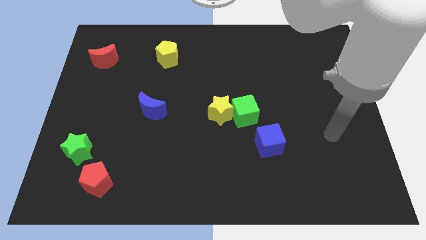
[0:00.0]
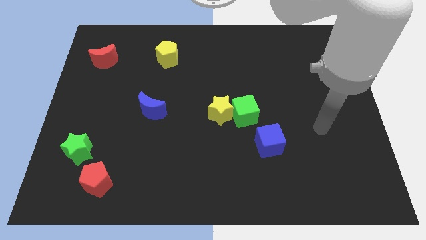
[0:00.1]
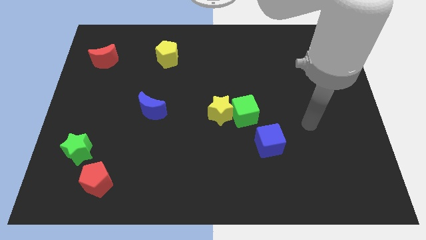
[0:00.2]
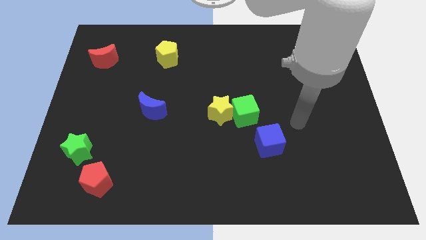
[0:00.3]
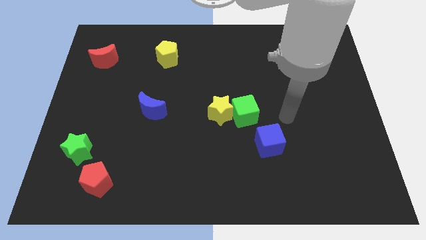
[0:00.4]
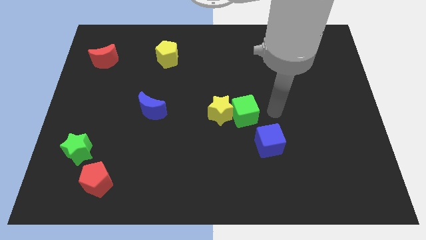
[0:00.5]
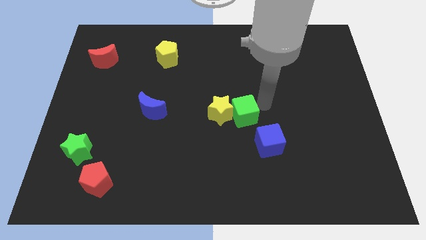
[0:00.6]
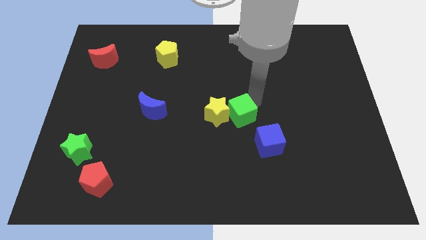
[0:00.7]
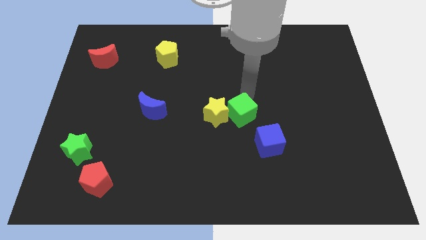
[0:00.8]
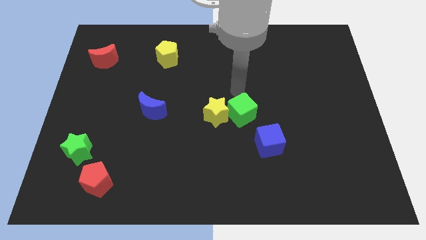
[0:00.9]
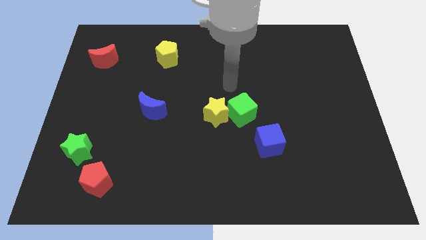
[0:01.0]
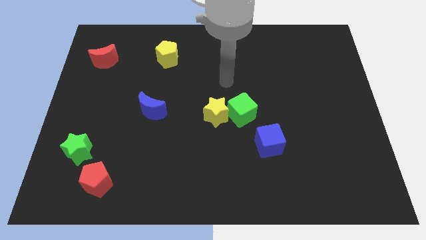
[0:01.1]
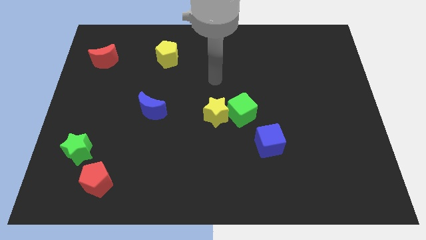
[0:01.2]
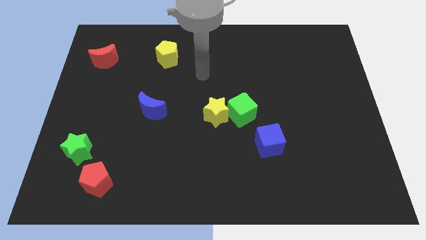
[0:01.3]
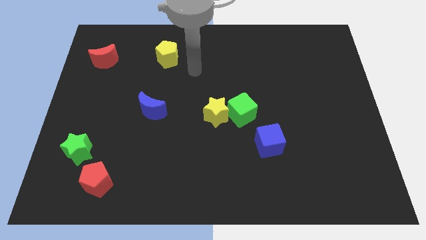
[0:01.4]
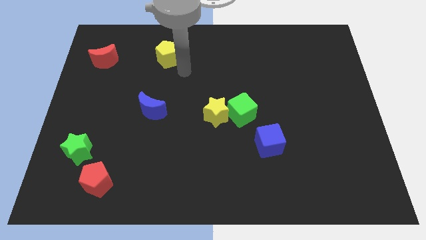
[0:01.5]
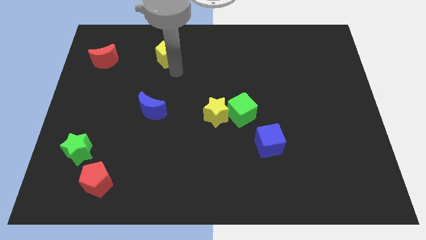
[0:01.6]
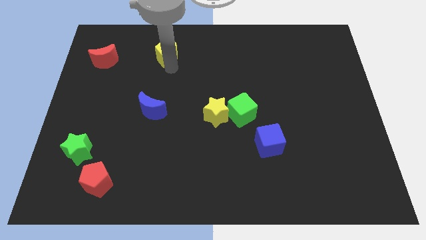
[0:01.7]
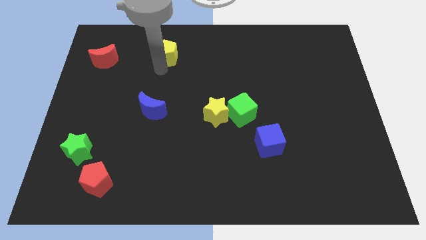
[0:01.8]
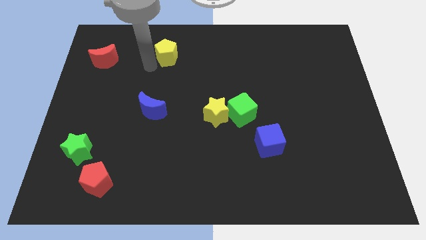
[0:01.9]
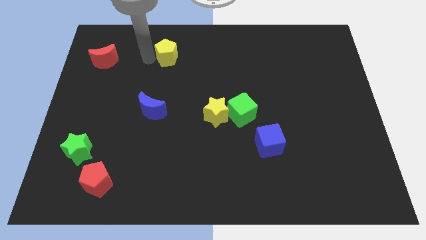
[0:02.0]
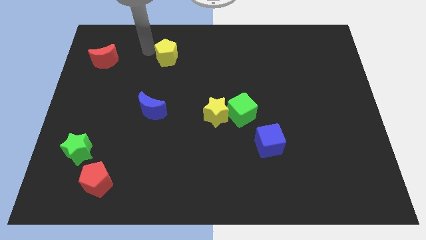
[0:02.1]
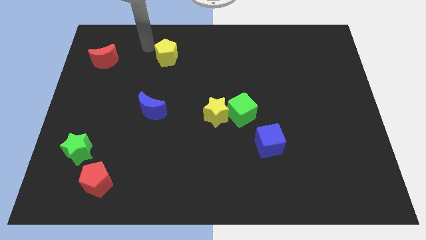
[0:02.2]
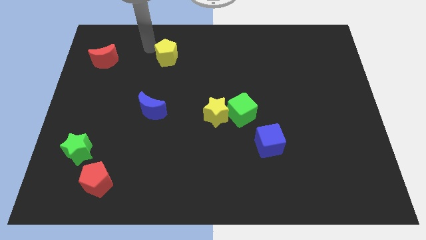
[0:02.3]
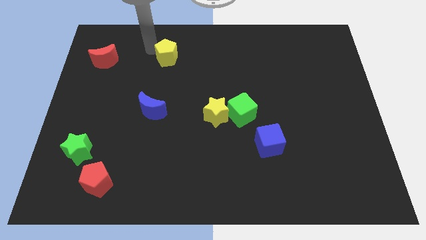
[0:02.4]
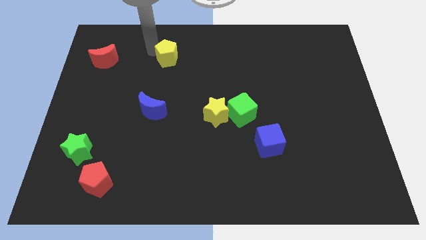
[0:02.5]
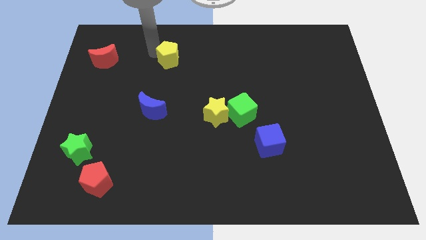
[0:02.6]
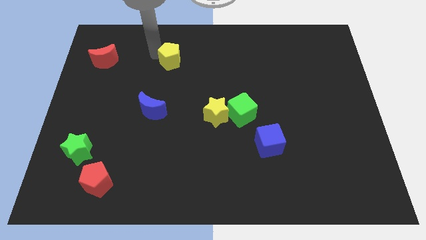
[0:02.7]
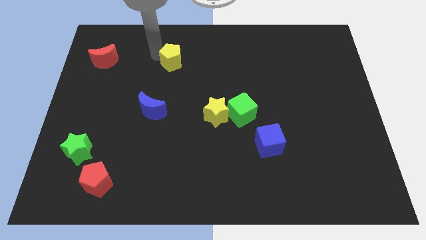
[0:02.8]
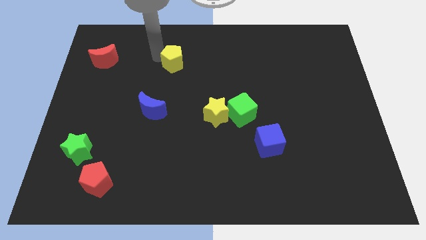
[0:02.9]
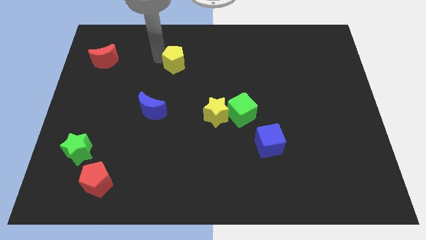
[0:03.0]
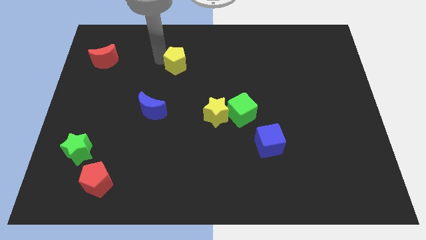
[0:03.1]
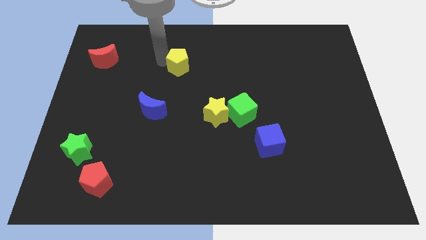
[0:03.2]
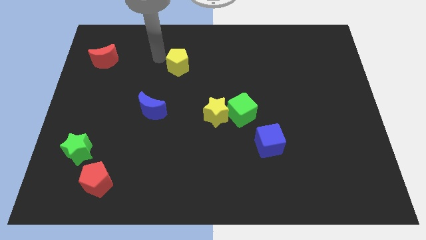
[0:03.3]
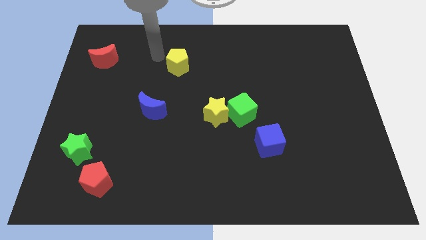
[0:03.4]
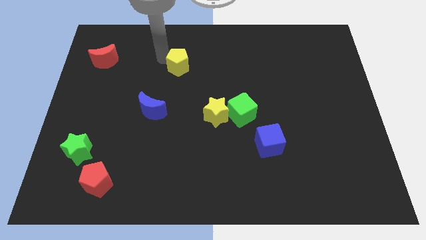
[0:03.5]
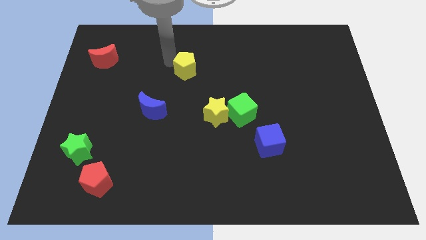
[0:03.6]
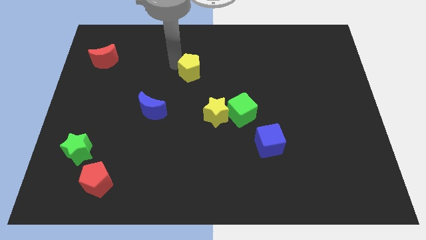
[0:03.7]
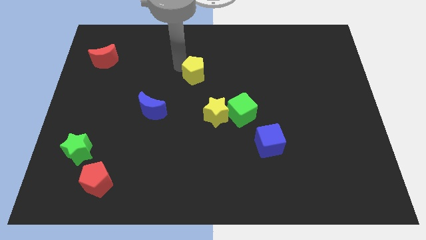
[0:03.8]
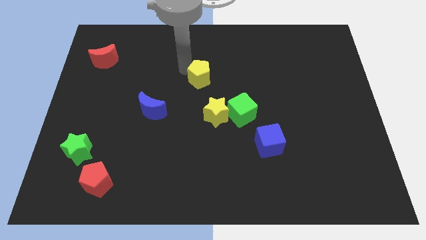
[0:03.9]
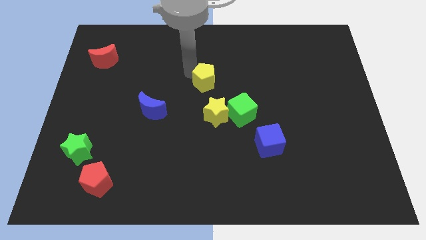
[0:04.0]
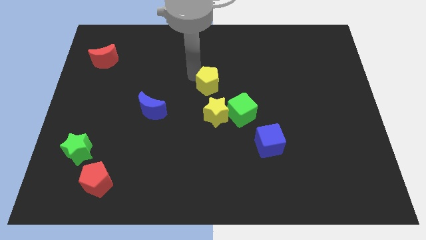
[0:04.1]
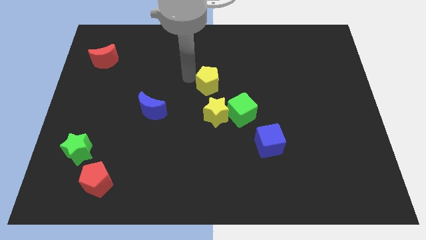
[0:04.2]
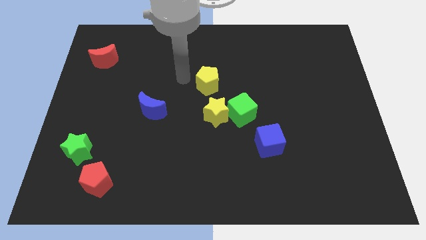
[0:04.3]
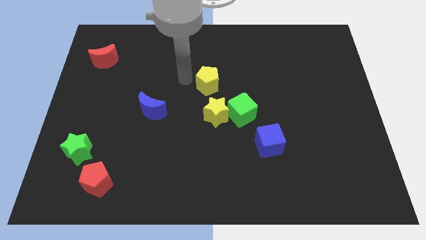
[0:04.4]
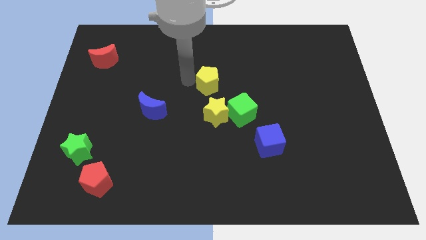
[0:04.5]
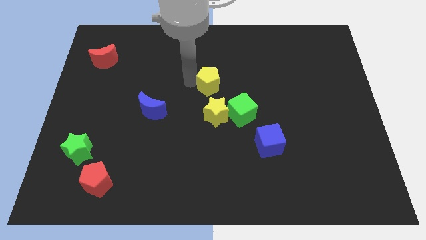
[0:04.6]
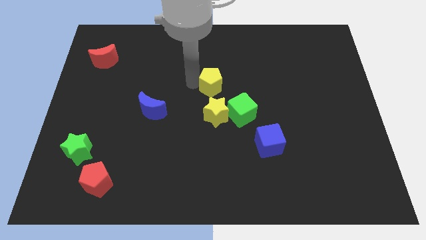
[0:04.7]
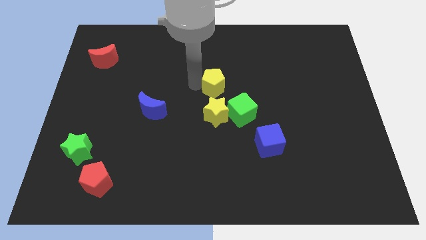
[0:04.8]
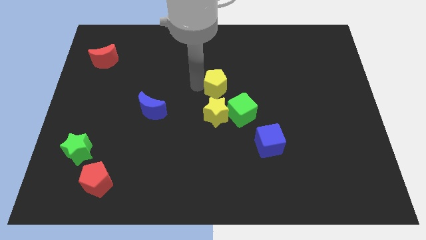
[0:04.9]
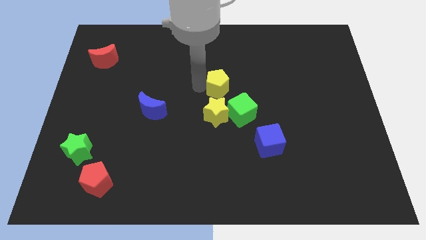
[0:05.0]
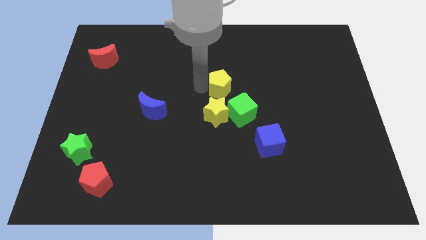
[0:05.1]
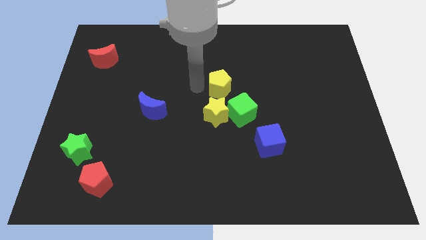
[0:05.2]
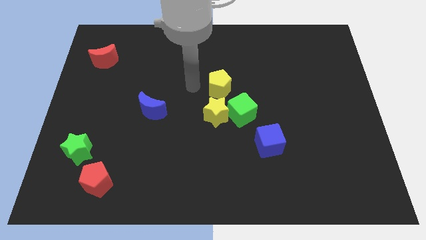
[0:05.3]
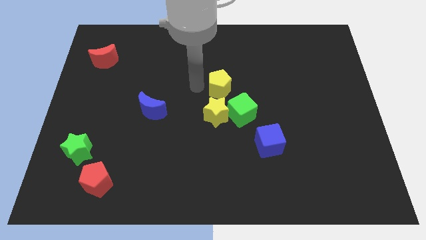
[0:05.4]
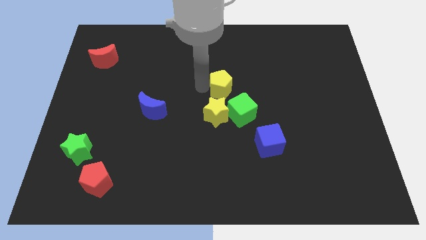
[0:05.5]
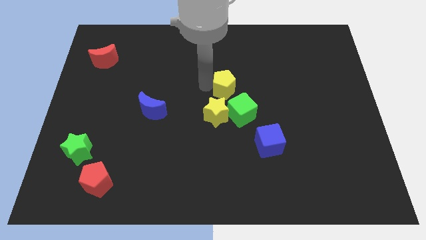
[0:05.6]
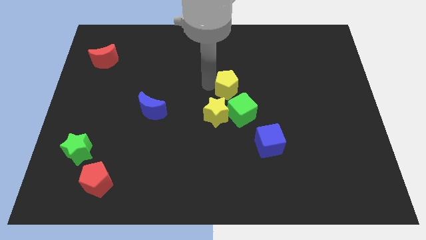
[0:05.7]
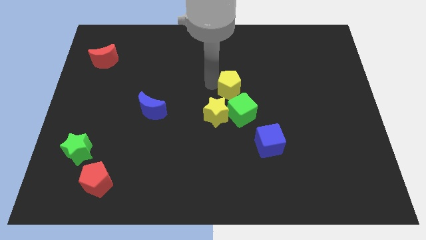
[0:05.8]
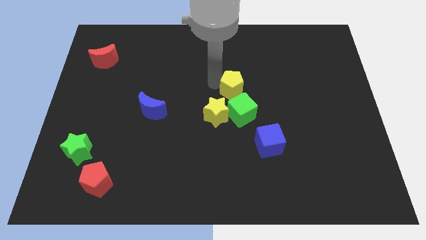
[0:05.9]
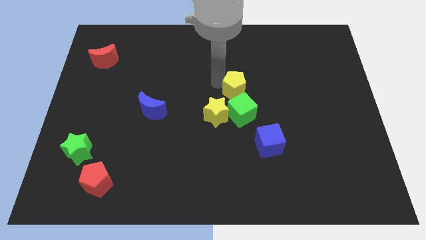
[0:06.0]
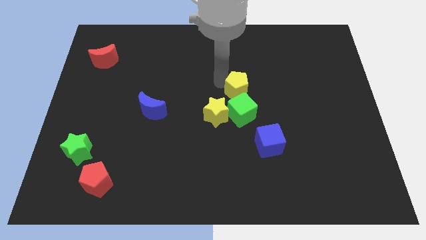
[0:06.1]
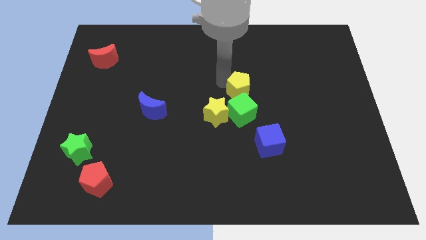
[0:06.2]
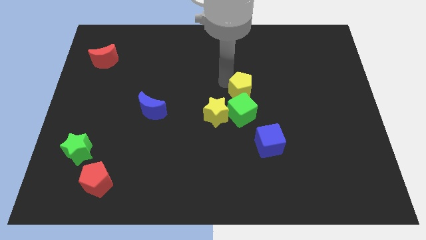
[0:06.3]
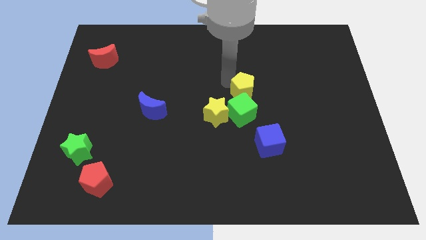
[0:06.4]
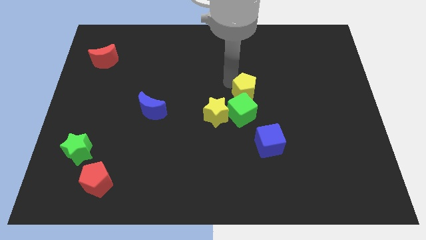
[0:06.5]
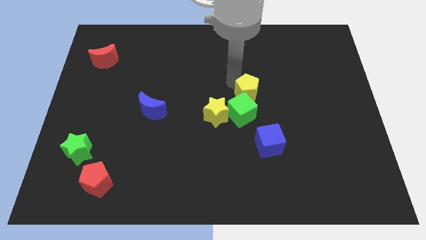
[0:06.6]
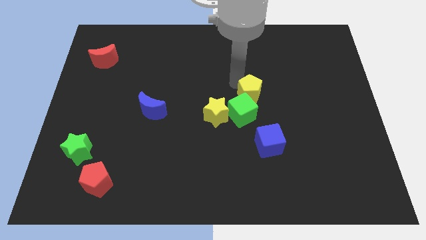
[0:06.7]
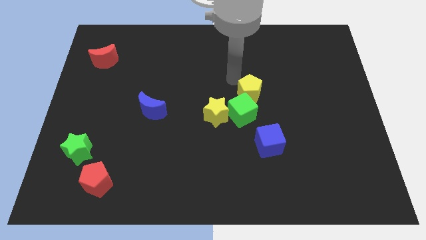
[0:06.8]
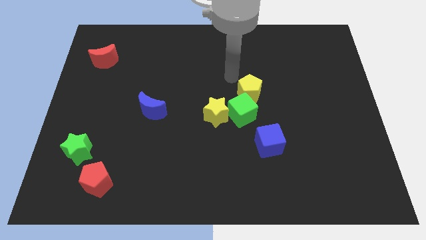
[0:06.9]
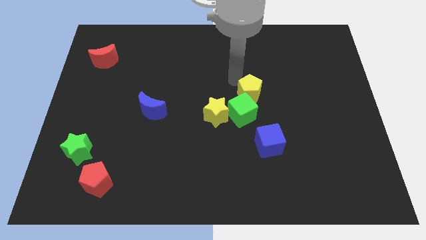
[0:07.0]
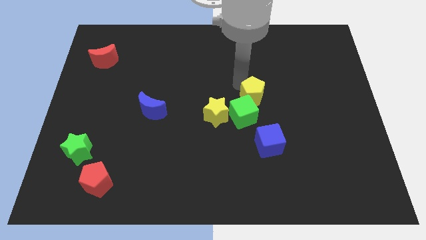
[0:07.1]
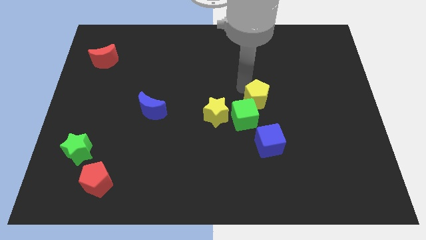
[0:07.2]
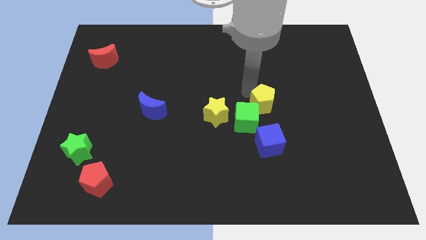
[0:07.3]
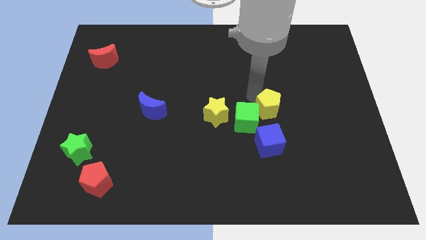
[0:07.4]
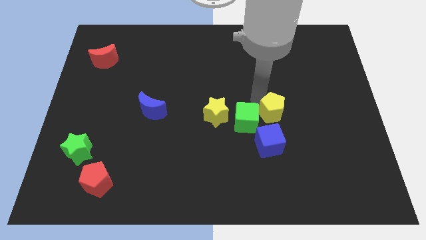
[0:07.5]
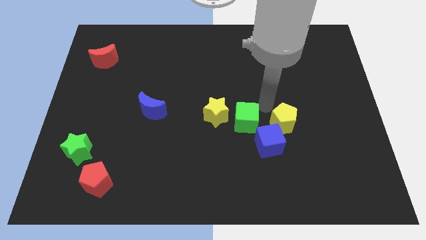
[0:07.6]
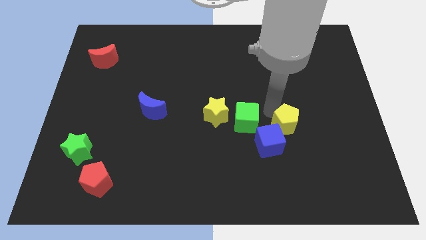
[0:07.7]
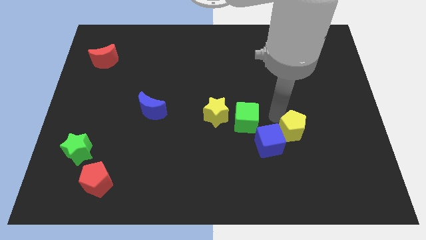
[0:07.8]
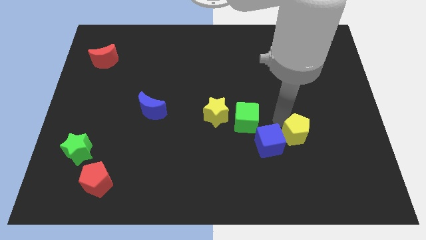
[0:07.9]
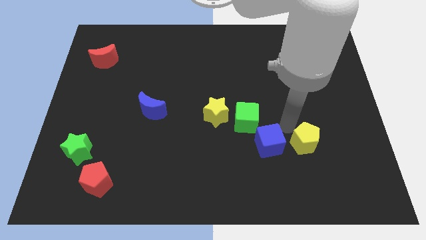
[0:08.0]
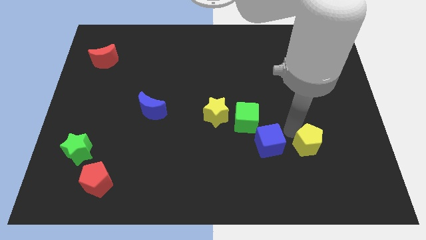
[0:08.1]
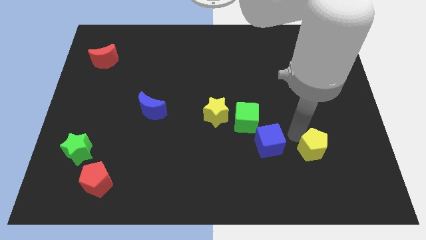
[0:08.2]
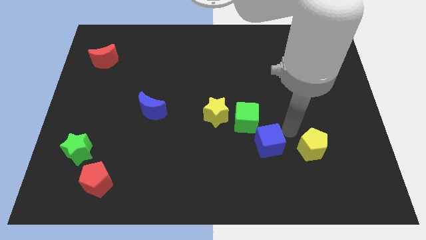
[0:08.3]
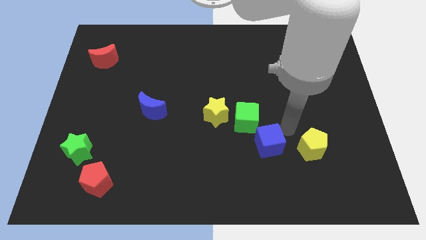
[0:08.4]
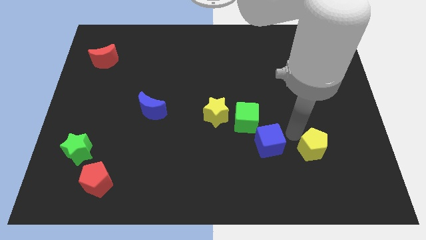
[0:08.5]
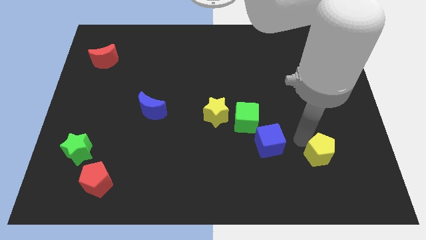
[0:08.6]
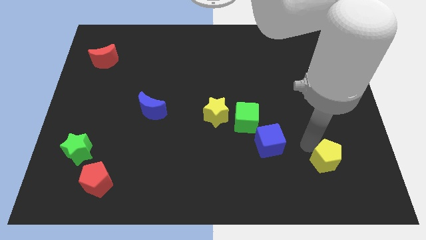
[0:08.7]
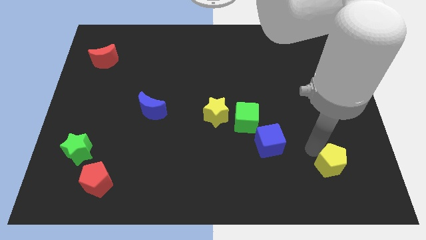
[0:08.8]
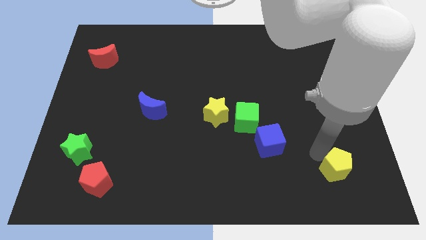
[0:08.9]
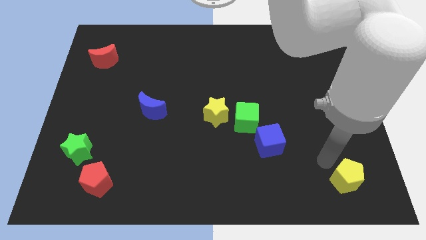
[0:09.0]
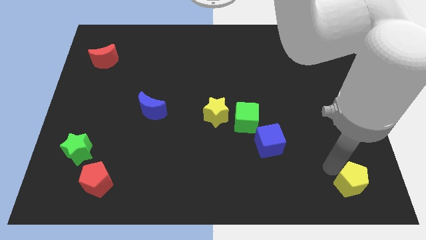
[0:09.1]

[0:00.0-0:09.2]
push the yellow pentagon to the bottom right corner
